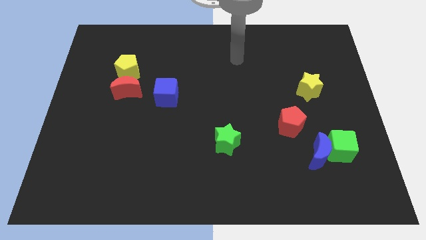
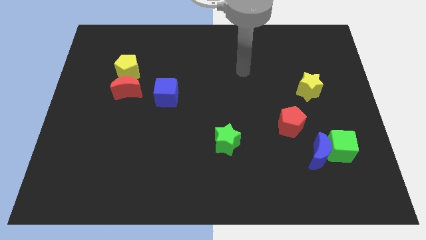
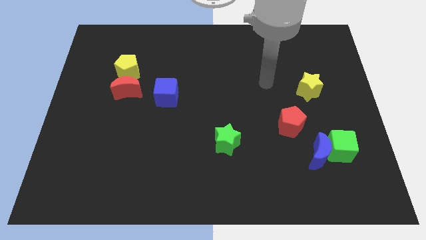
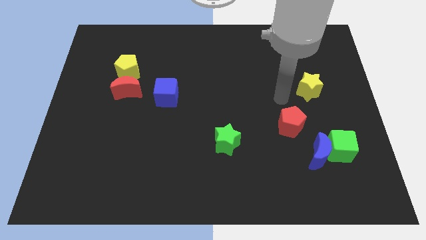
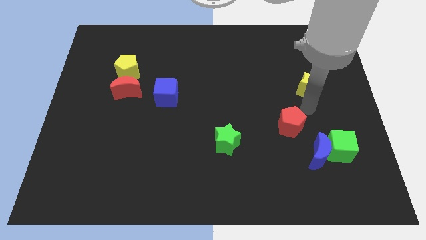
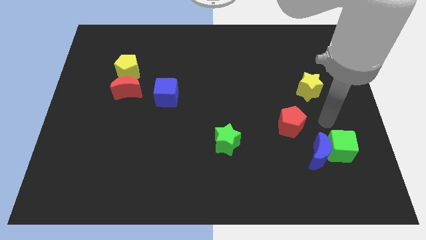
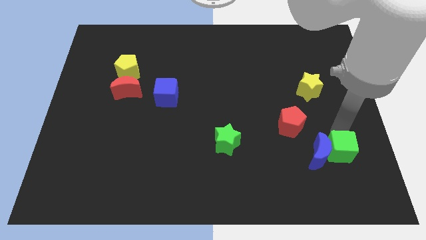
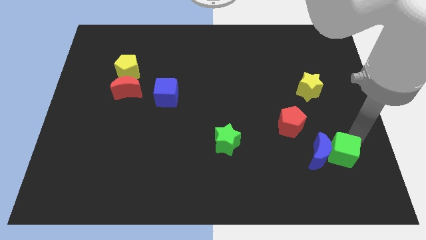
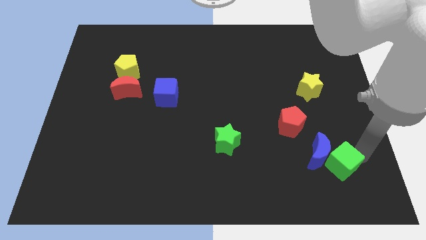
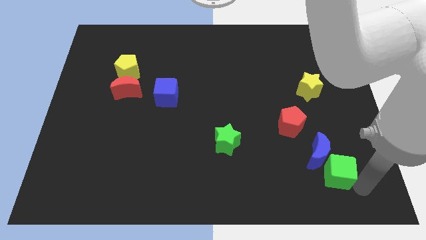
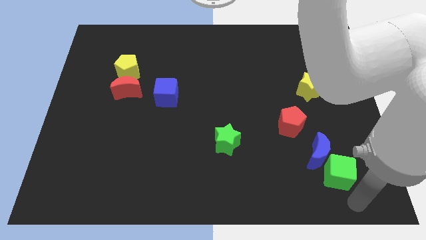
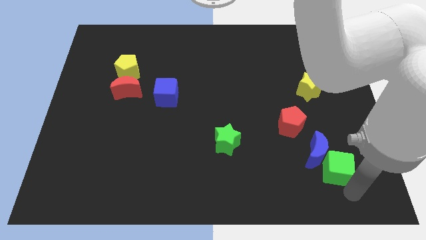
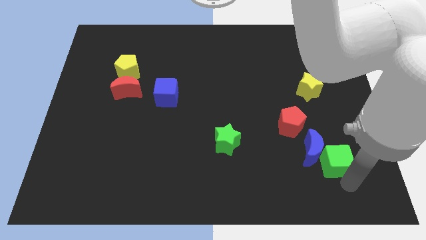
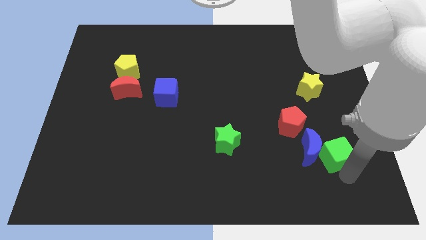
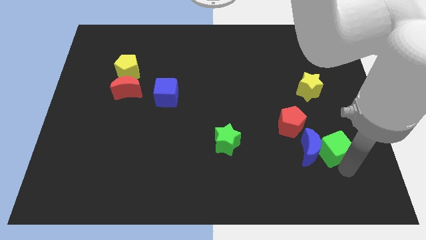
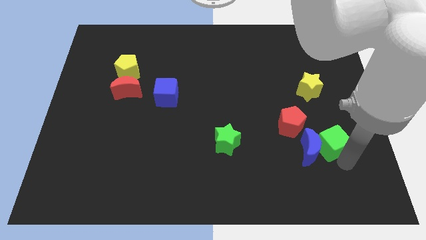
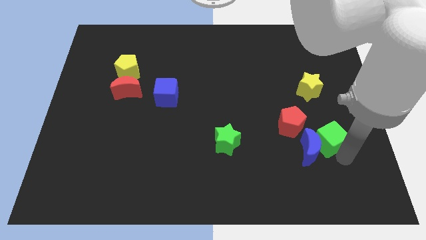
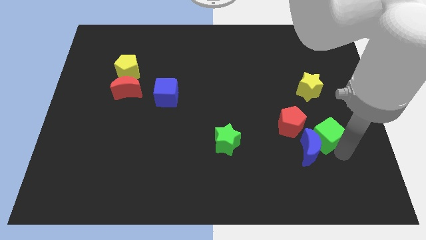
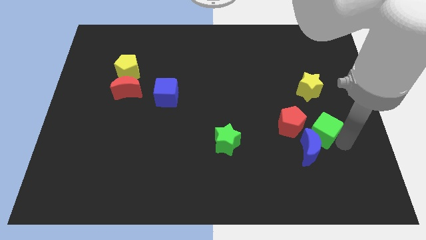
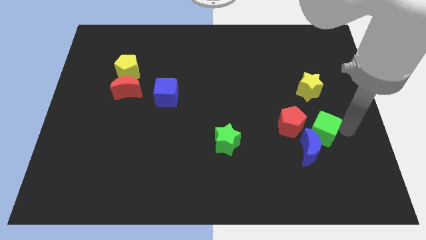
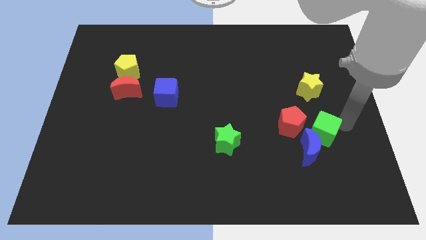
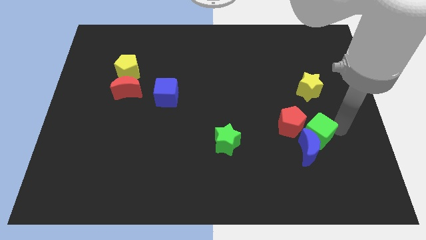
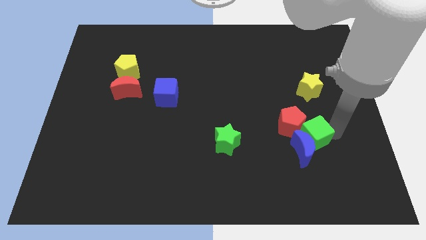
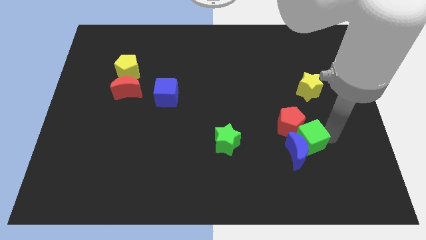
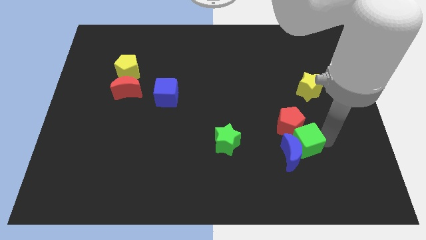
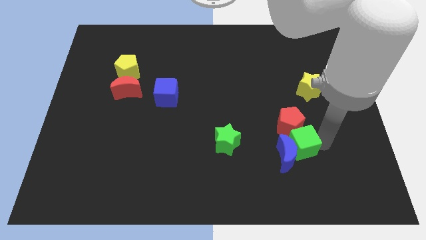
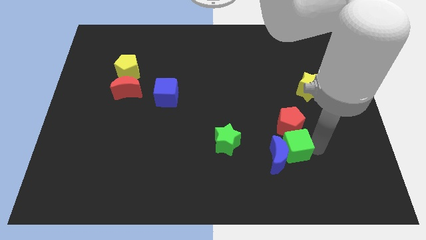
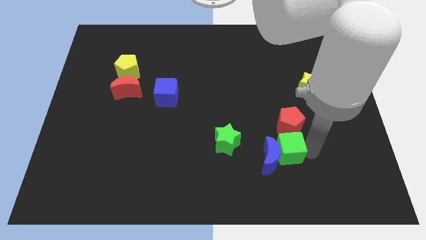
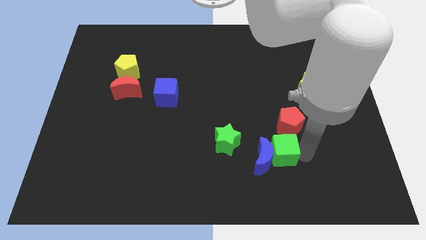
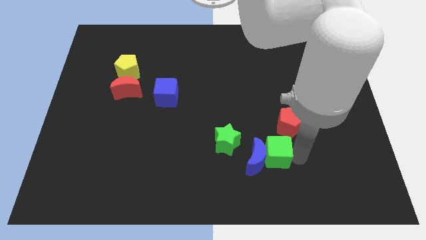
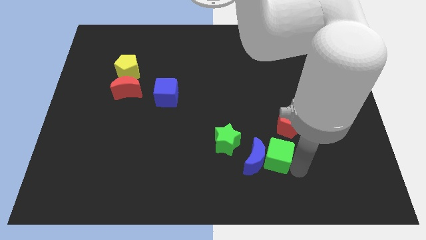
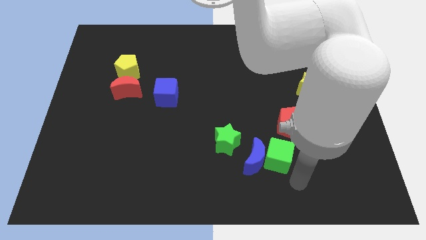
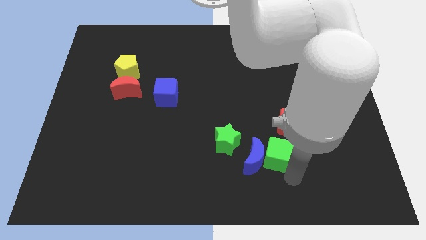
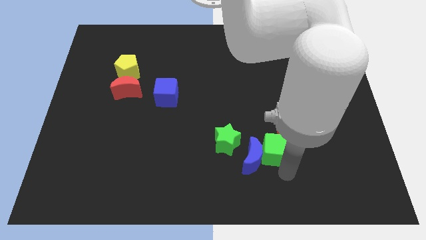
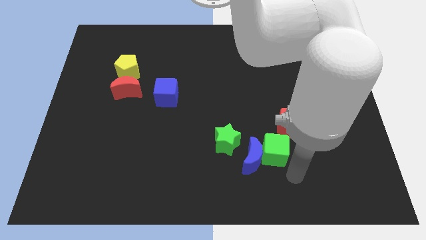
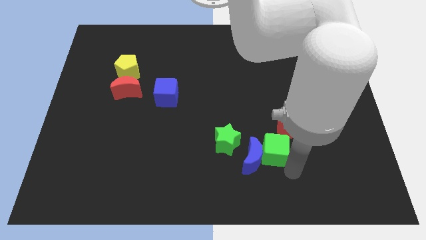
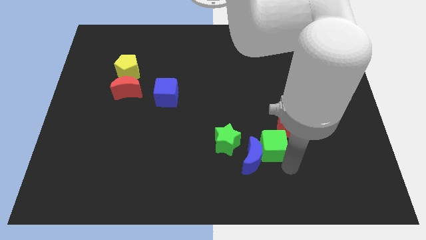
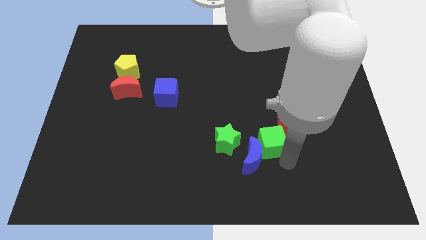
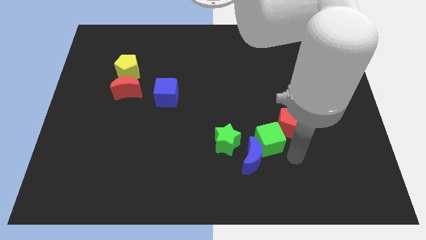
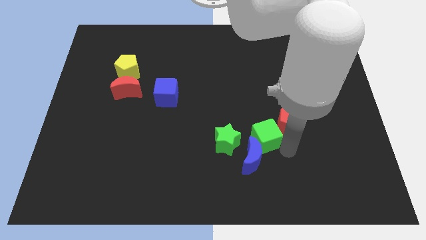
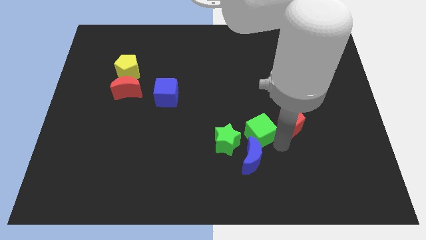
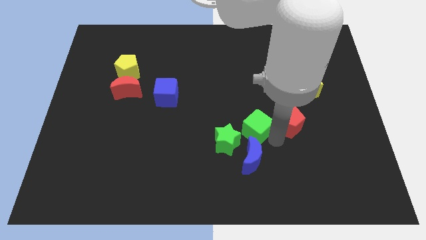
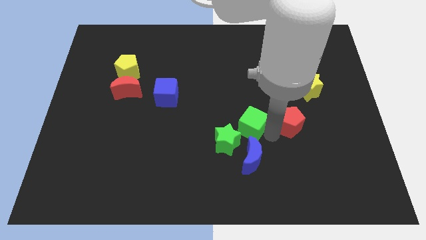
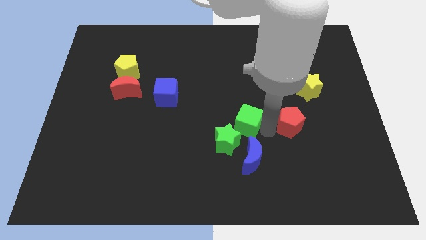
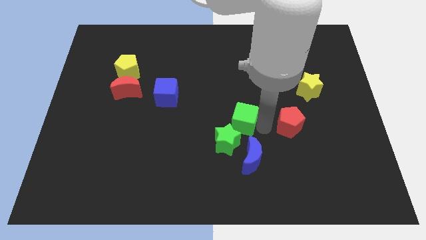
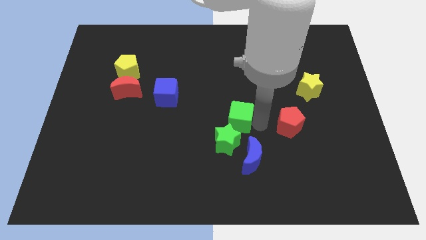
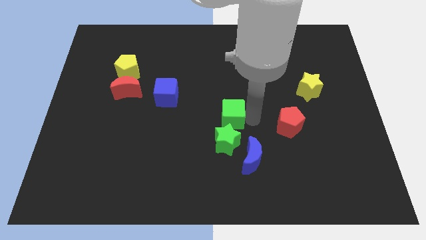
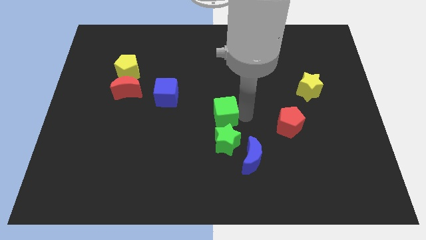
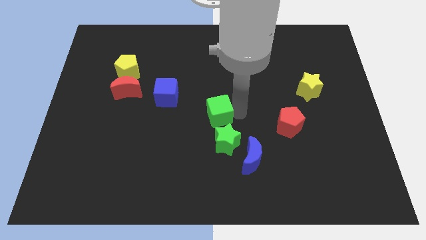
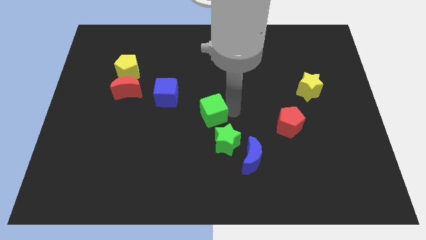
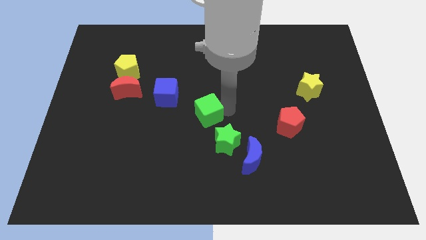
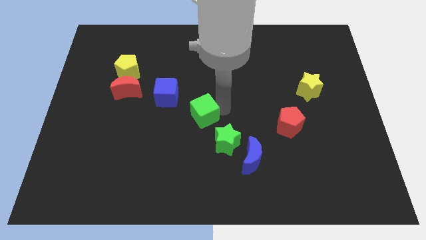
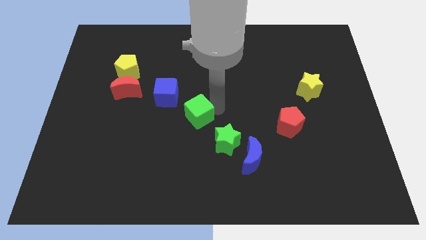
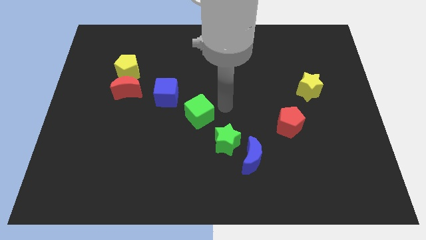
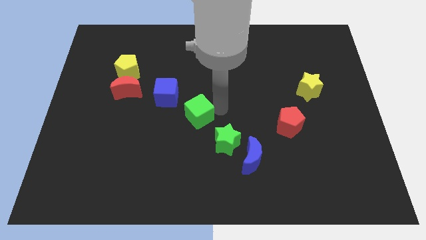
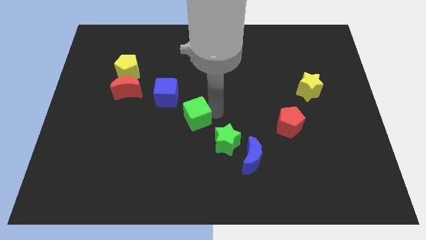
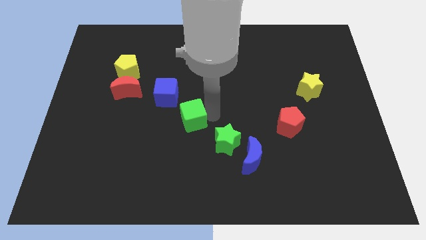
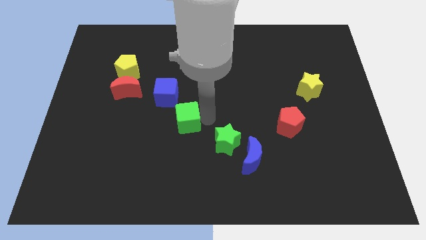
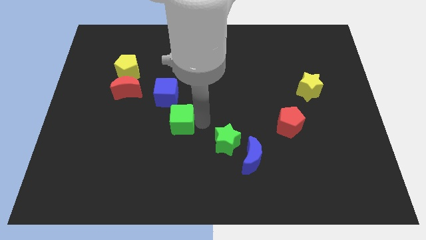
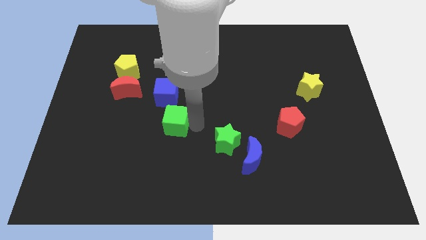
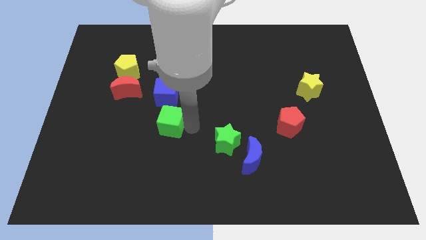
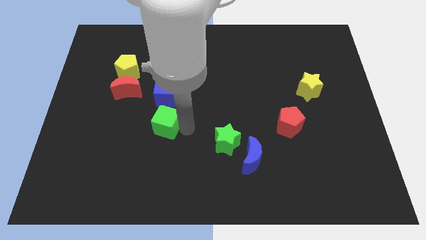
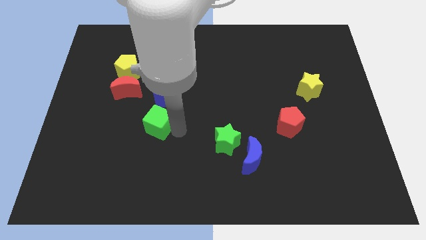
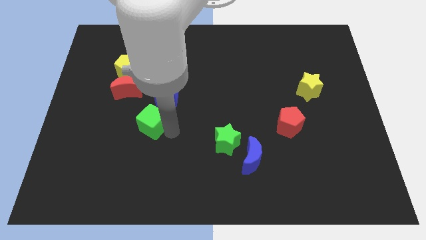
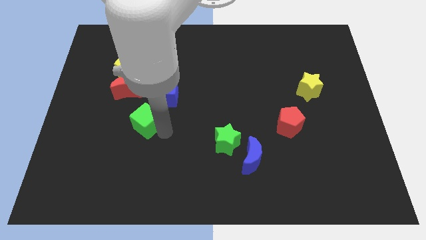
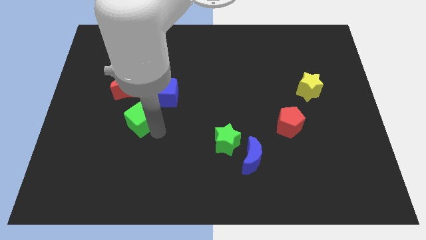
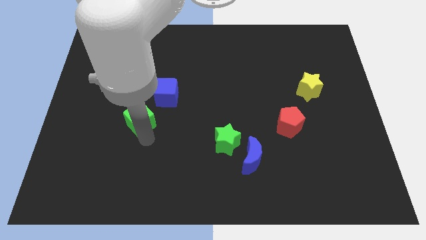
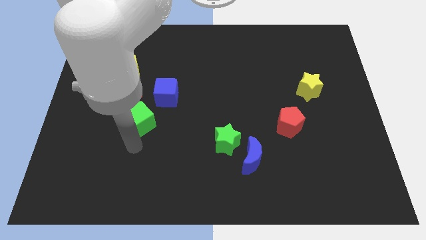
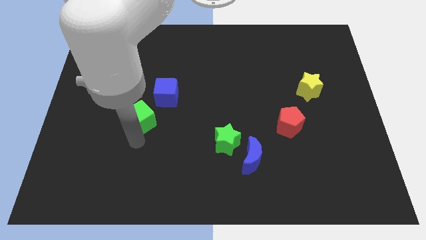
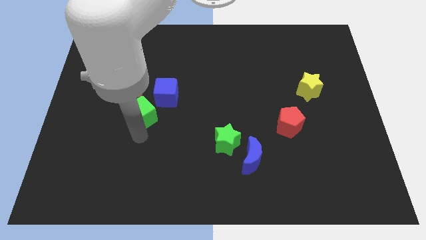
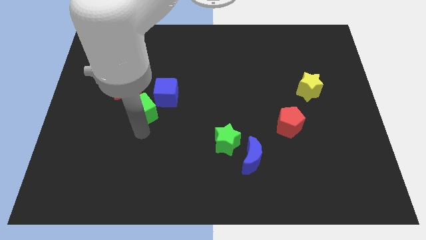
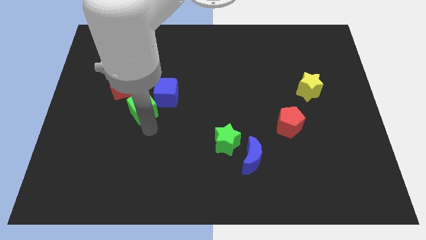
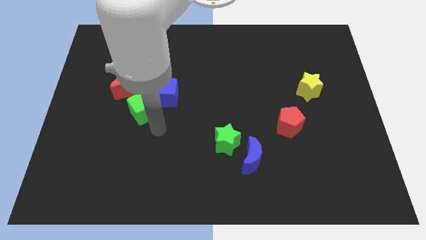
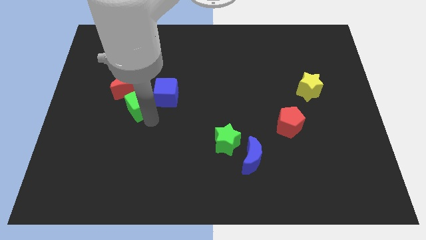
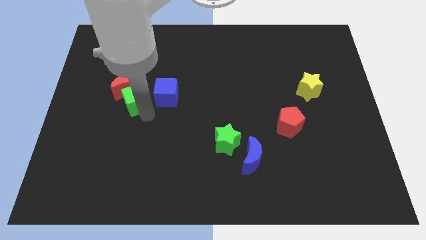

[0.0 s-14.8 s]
move the green cube next to the red moon
